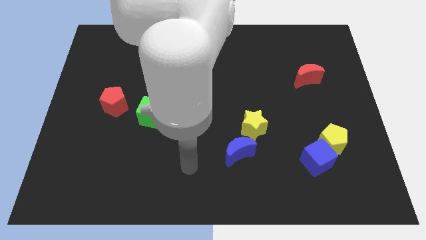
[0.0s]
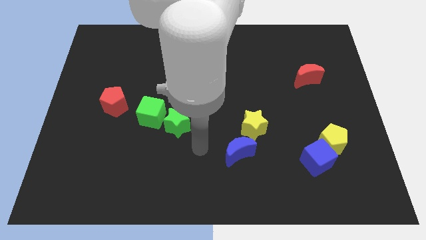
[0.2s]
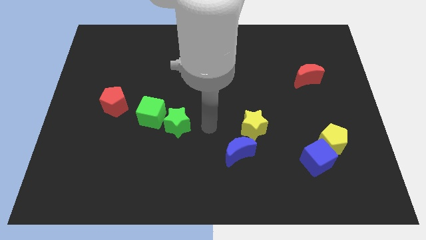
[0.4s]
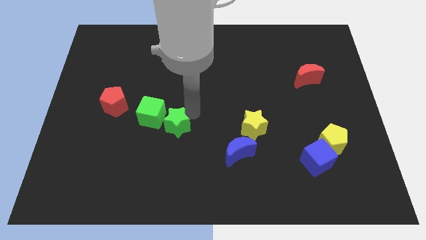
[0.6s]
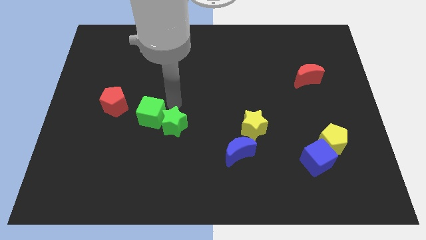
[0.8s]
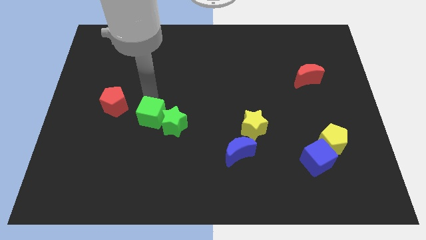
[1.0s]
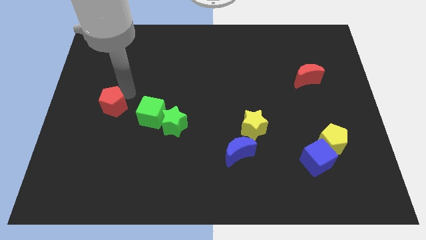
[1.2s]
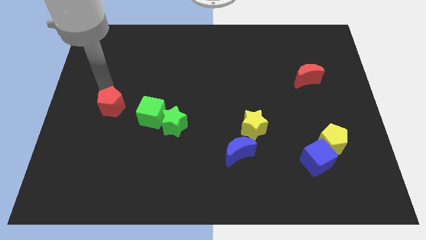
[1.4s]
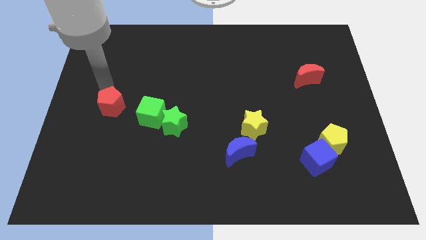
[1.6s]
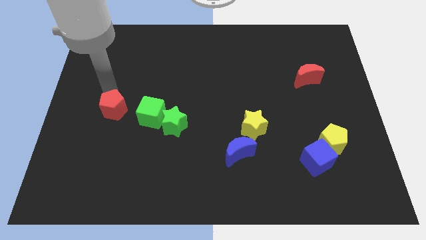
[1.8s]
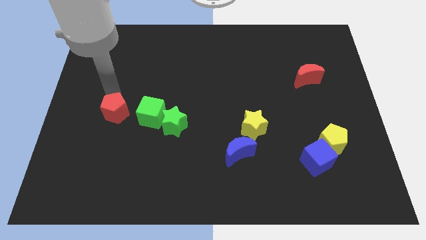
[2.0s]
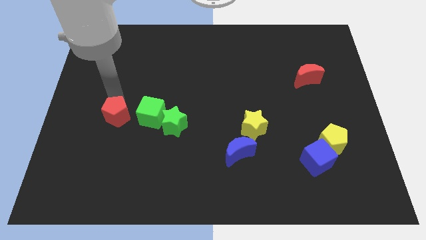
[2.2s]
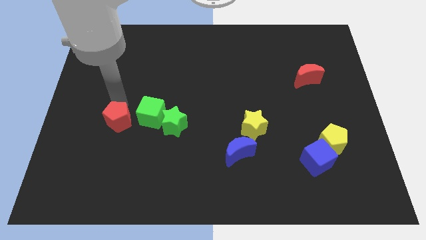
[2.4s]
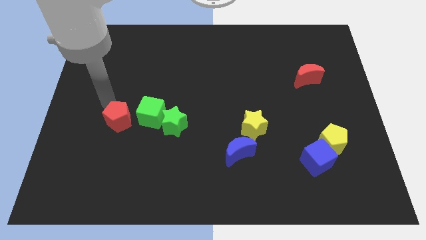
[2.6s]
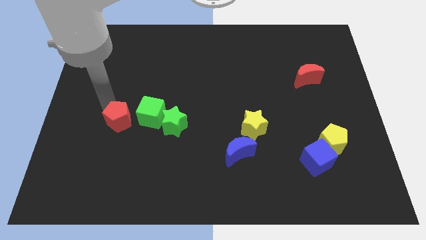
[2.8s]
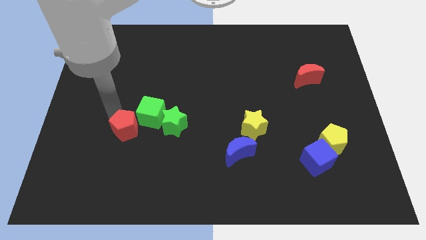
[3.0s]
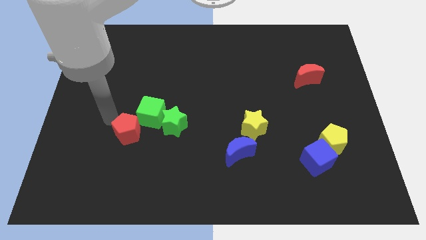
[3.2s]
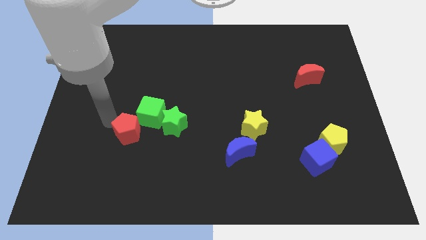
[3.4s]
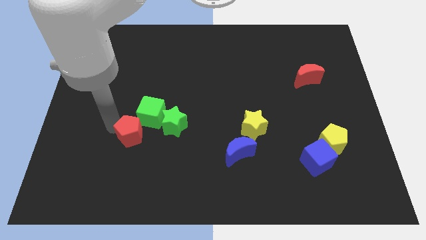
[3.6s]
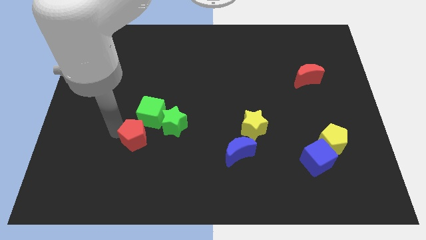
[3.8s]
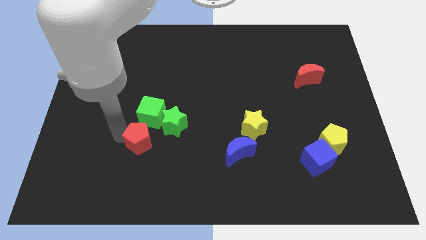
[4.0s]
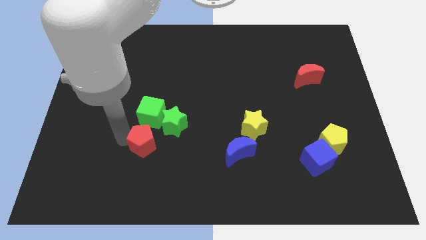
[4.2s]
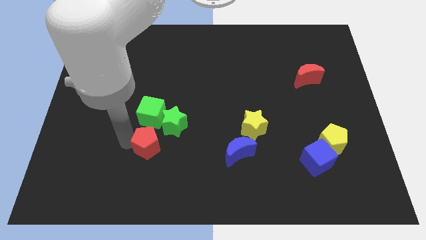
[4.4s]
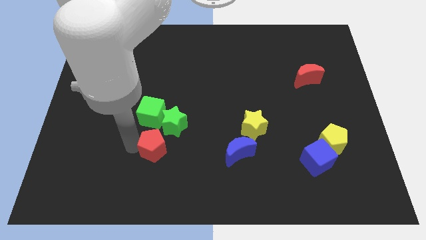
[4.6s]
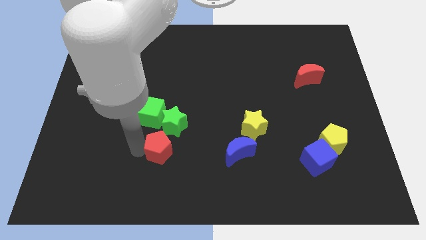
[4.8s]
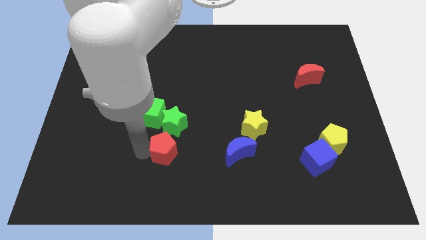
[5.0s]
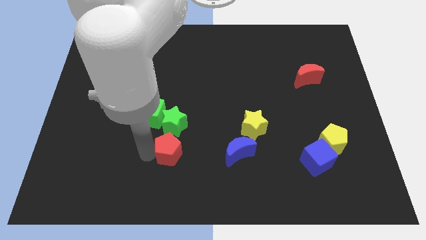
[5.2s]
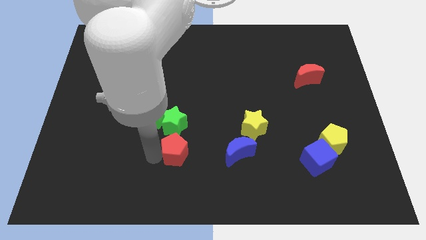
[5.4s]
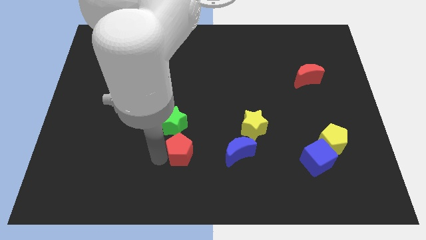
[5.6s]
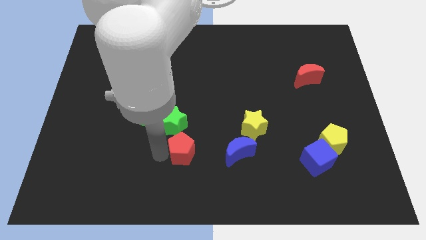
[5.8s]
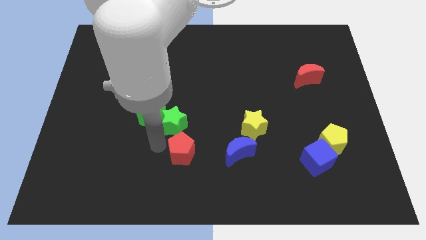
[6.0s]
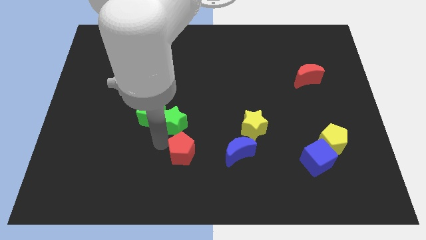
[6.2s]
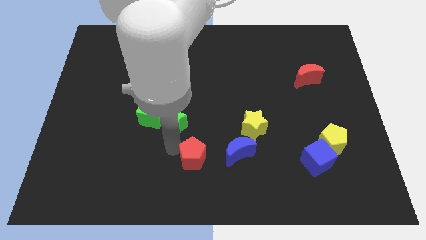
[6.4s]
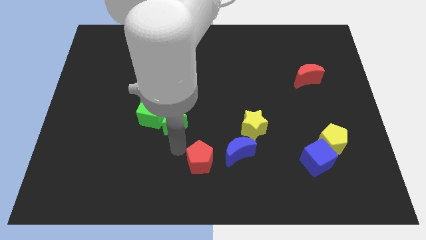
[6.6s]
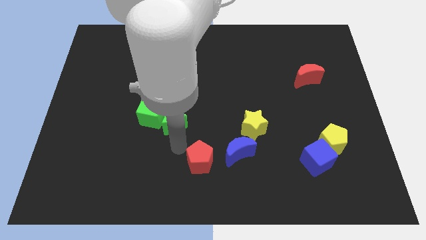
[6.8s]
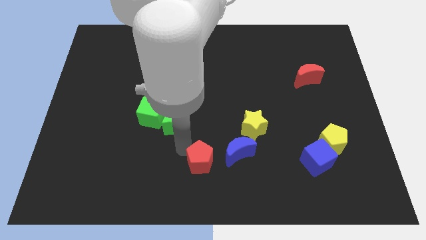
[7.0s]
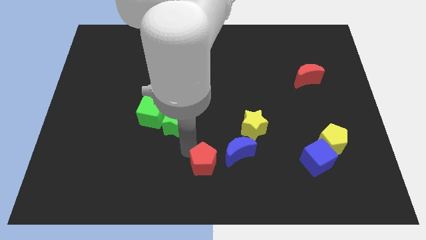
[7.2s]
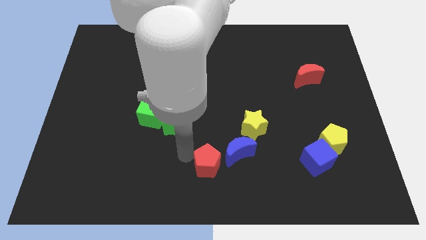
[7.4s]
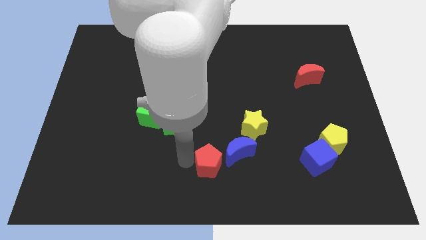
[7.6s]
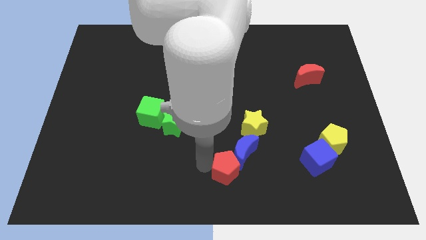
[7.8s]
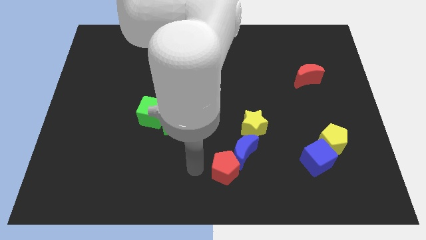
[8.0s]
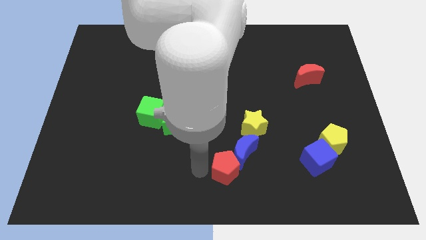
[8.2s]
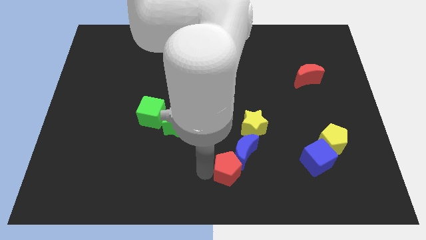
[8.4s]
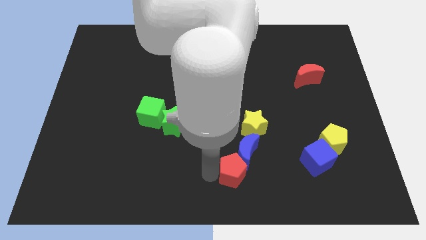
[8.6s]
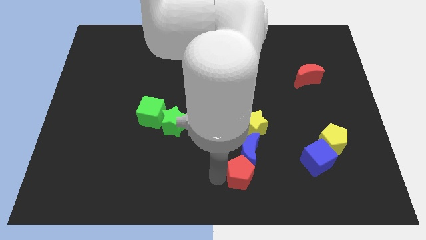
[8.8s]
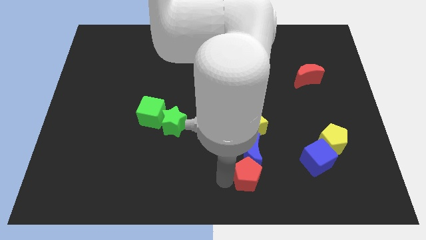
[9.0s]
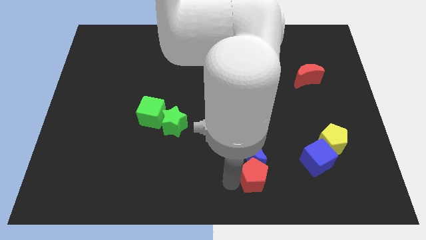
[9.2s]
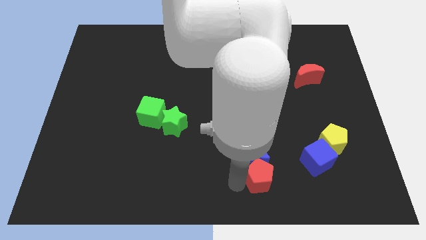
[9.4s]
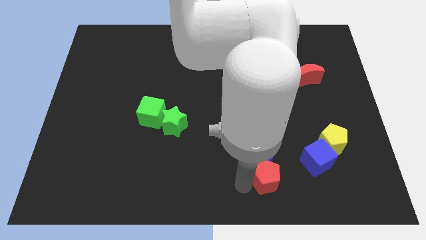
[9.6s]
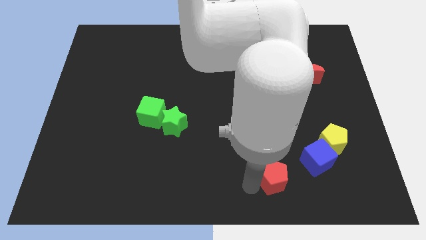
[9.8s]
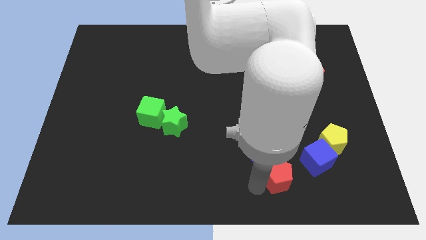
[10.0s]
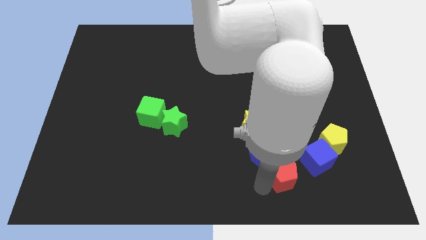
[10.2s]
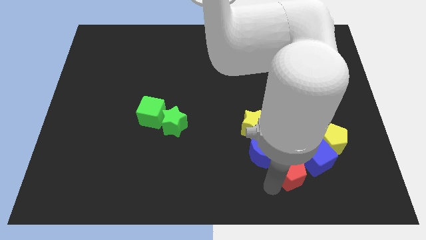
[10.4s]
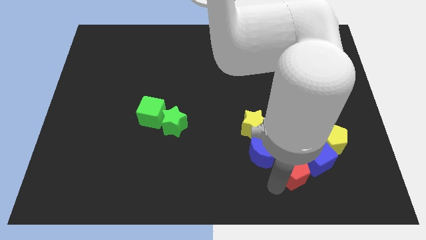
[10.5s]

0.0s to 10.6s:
move the red pentagon next to the blue cube

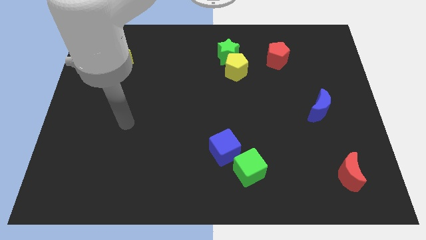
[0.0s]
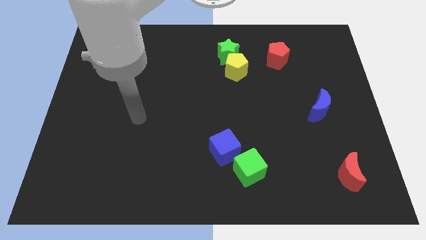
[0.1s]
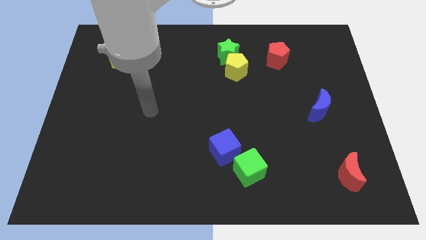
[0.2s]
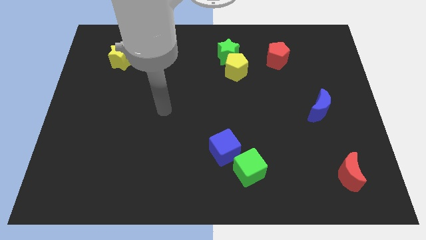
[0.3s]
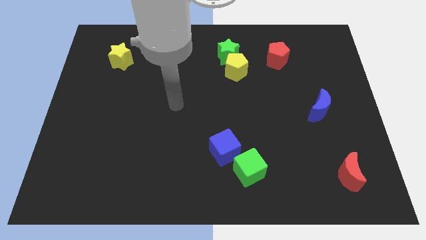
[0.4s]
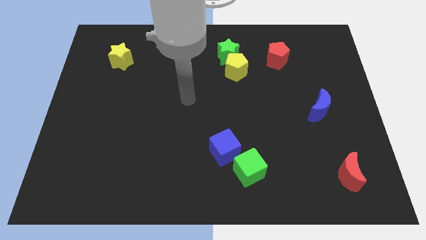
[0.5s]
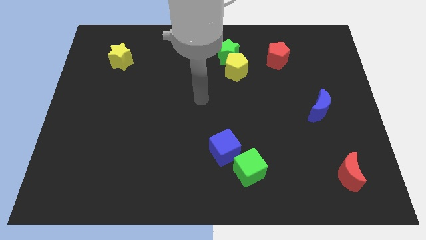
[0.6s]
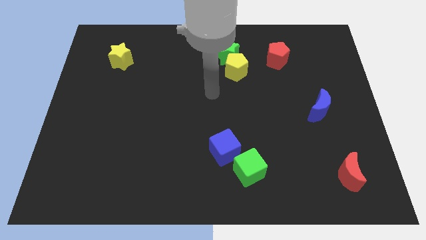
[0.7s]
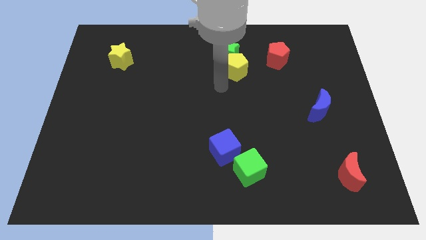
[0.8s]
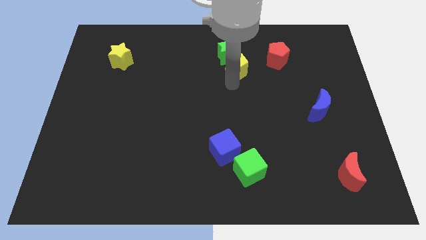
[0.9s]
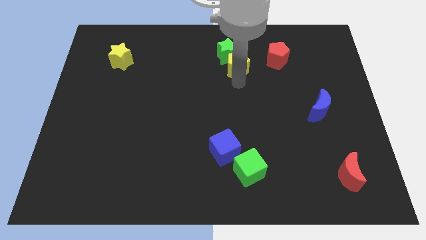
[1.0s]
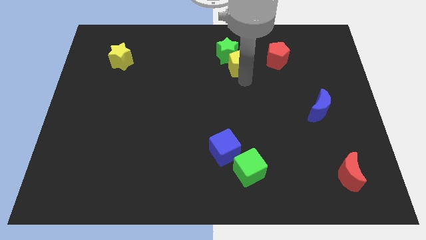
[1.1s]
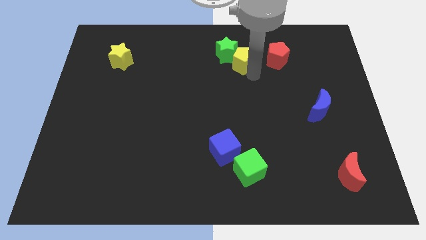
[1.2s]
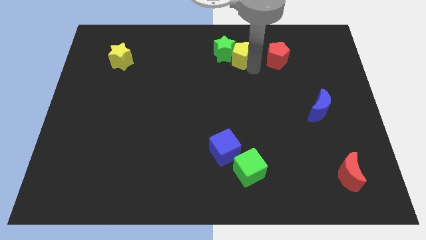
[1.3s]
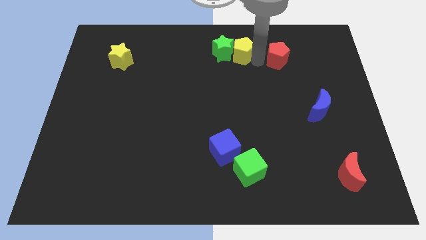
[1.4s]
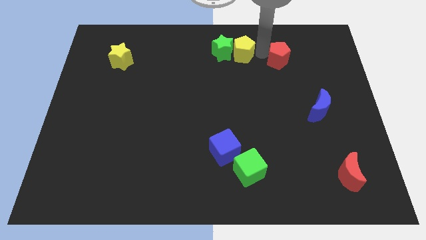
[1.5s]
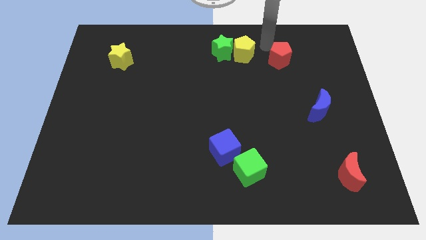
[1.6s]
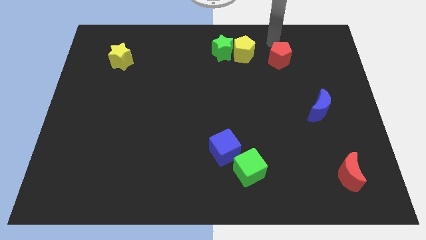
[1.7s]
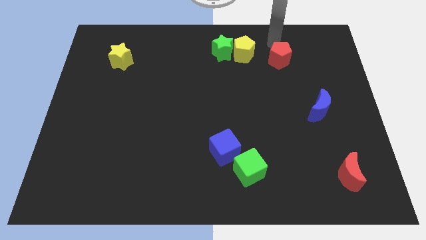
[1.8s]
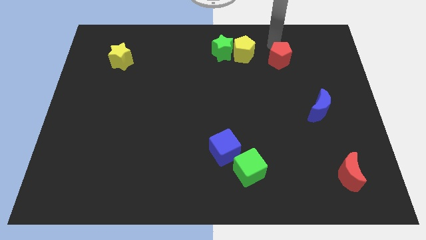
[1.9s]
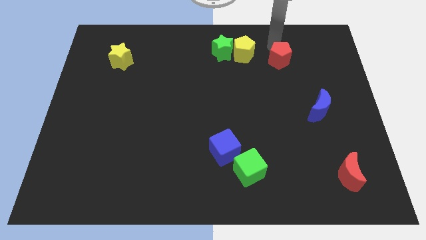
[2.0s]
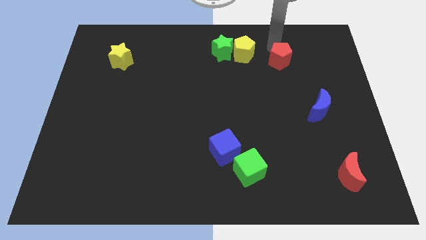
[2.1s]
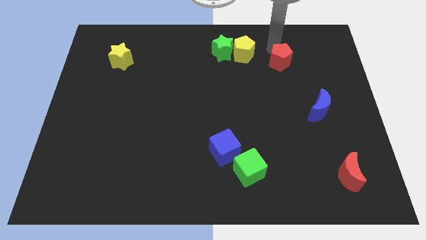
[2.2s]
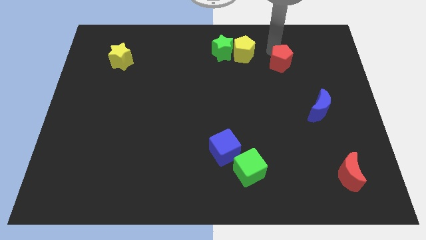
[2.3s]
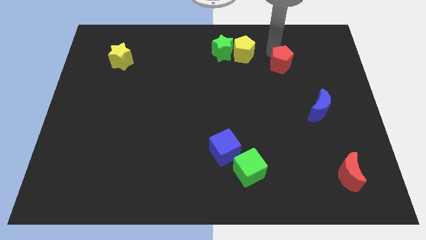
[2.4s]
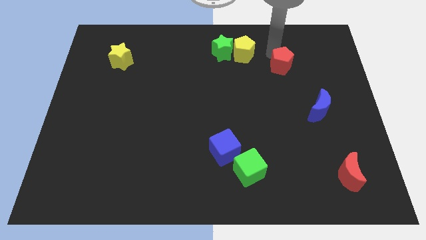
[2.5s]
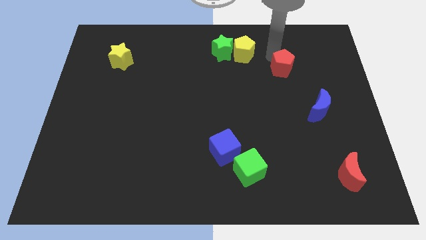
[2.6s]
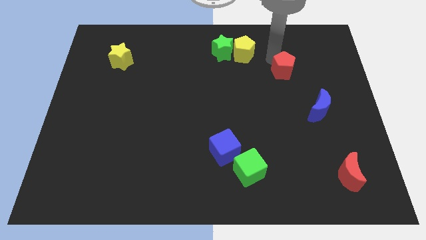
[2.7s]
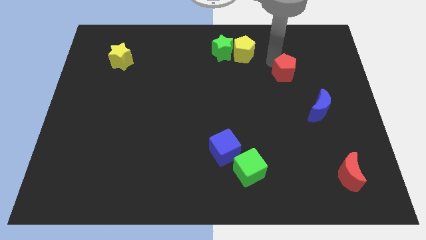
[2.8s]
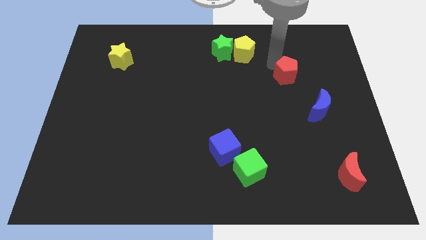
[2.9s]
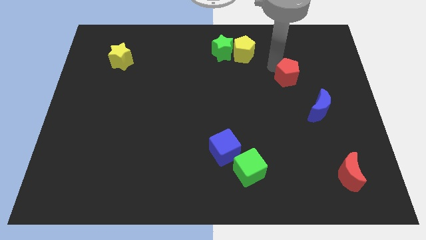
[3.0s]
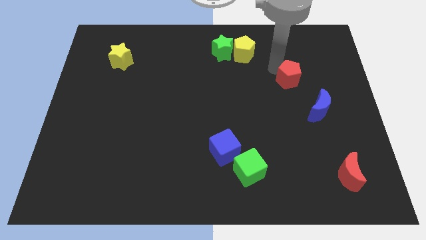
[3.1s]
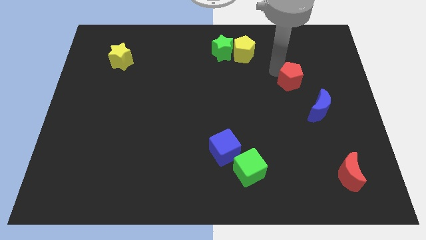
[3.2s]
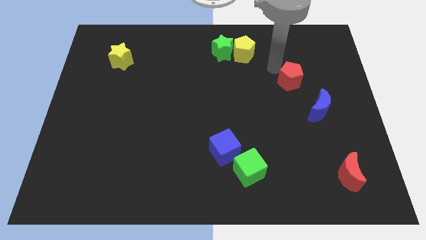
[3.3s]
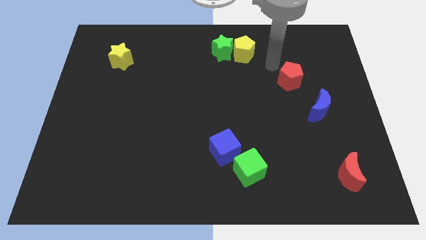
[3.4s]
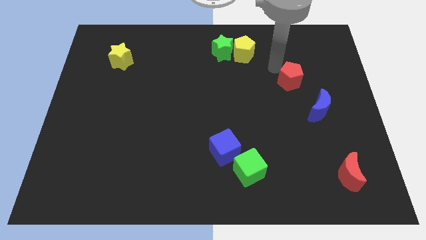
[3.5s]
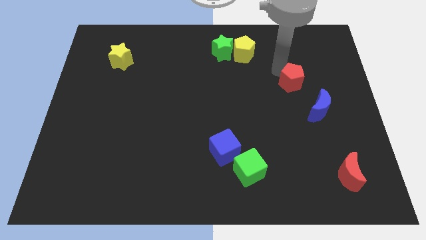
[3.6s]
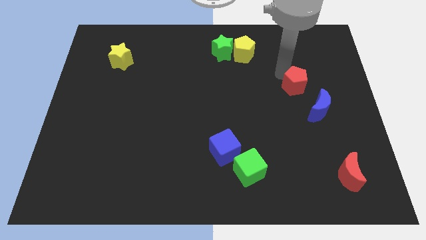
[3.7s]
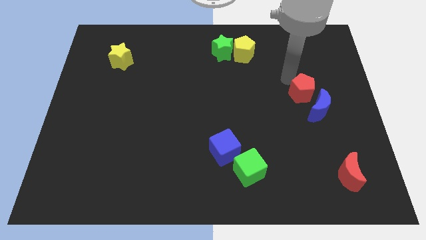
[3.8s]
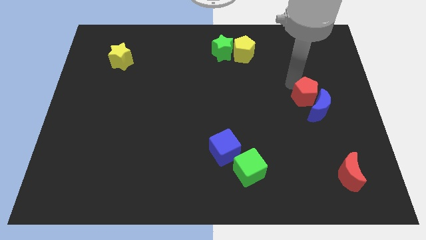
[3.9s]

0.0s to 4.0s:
slide the red pentagon towards the blue moon
